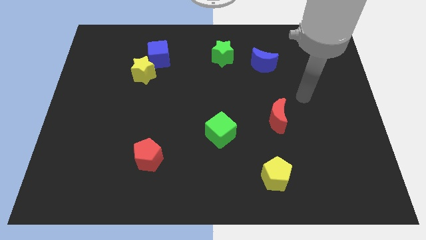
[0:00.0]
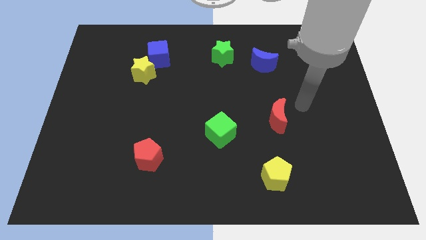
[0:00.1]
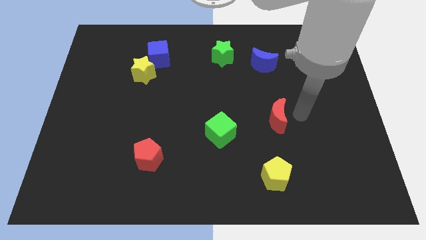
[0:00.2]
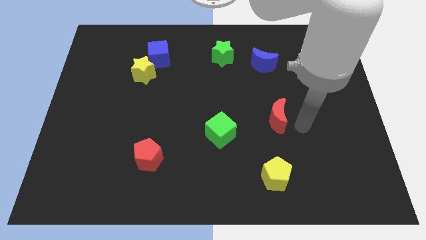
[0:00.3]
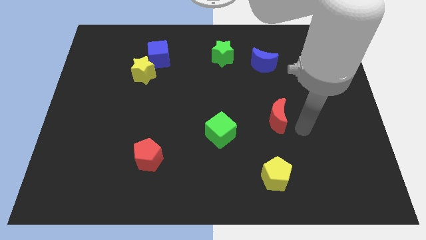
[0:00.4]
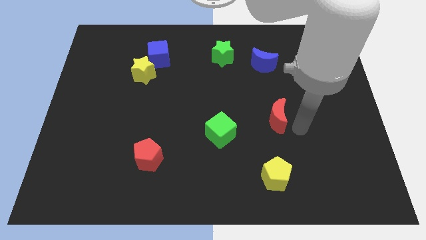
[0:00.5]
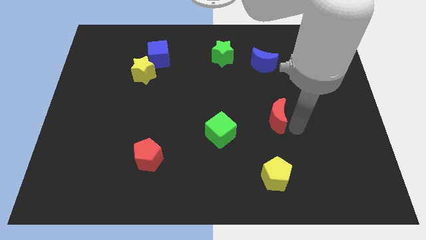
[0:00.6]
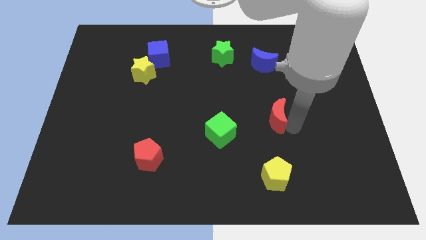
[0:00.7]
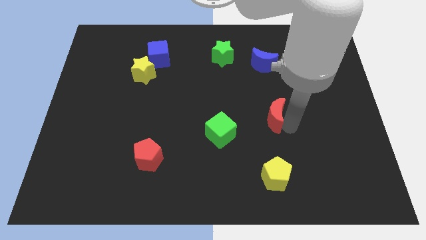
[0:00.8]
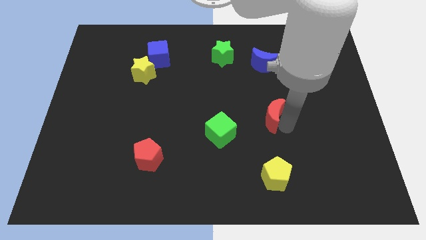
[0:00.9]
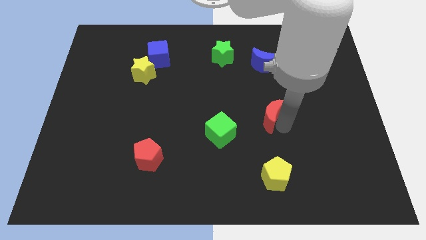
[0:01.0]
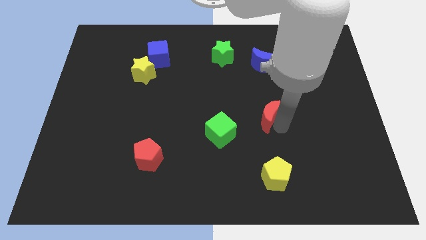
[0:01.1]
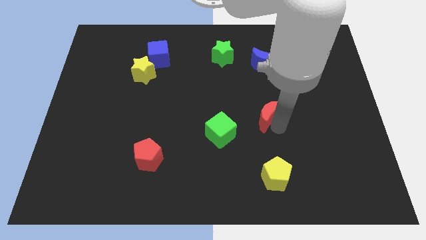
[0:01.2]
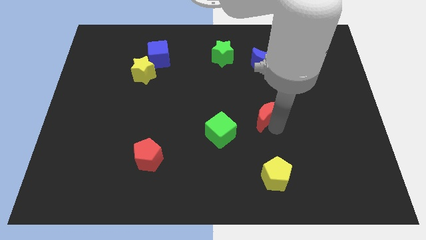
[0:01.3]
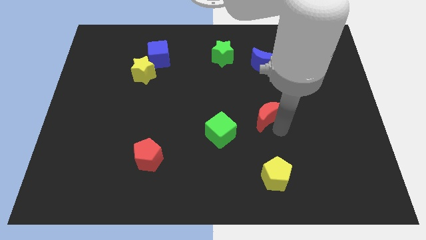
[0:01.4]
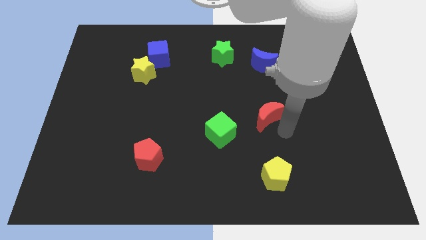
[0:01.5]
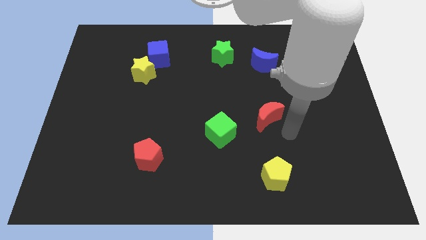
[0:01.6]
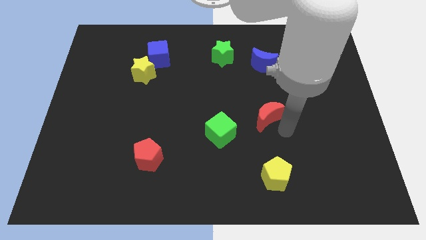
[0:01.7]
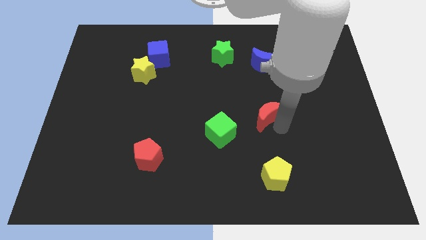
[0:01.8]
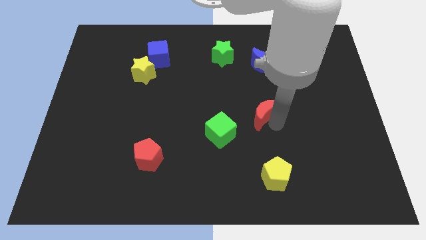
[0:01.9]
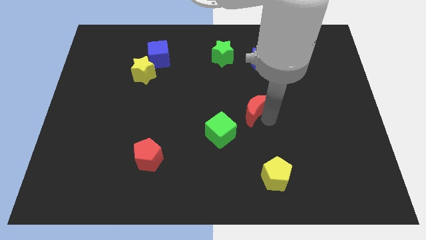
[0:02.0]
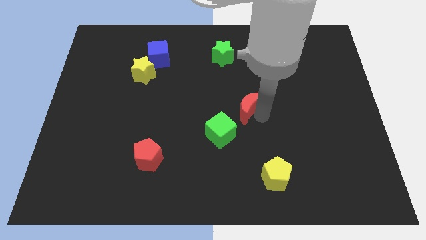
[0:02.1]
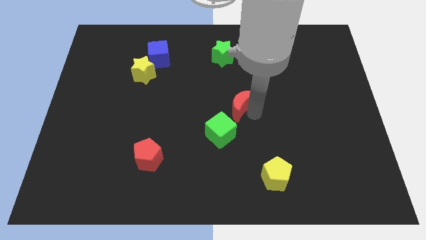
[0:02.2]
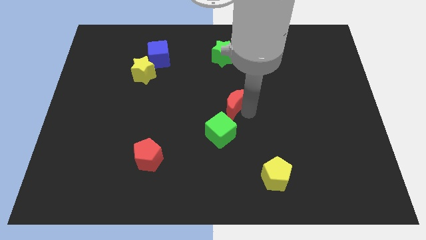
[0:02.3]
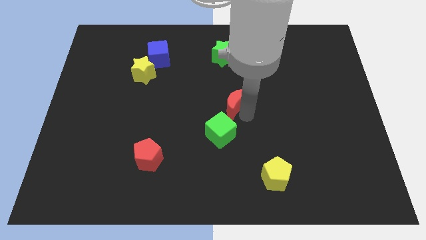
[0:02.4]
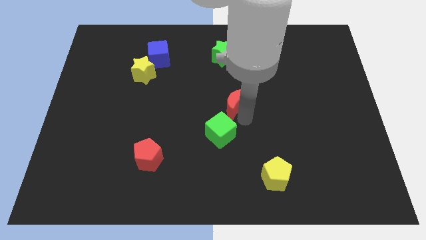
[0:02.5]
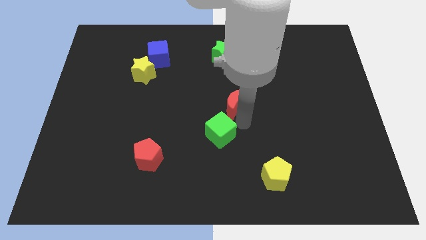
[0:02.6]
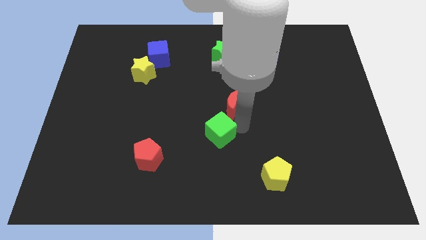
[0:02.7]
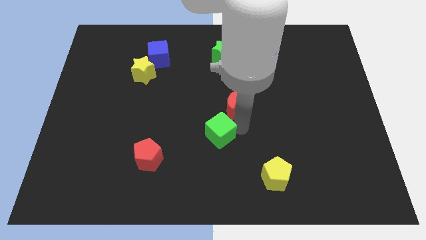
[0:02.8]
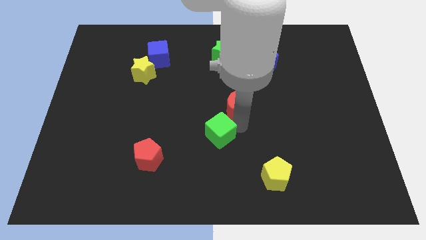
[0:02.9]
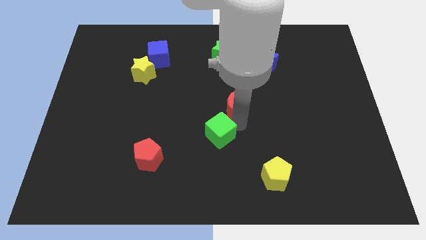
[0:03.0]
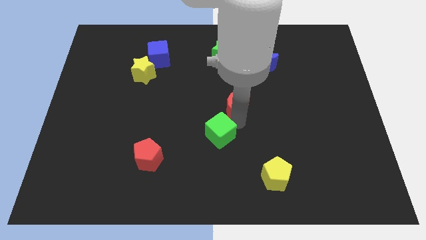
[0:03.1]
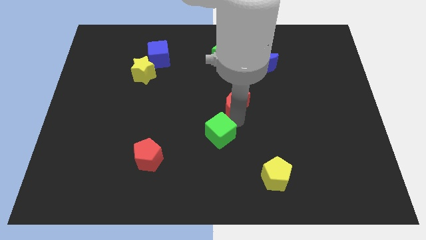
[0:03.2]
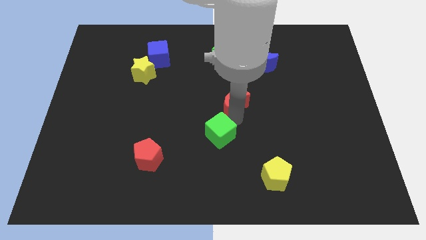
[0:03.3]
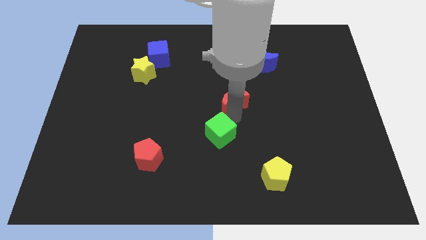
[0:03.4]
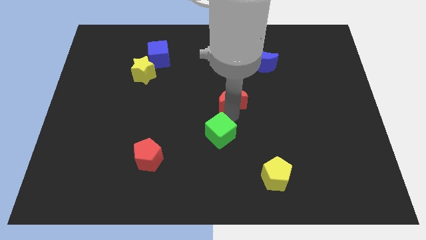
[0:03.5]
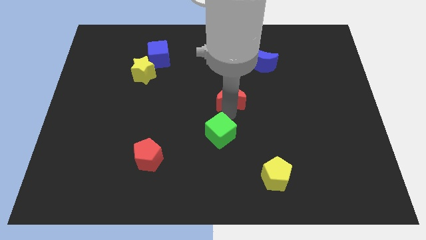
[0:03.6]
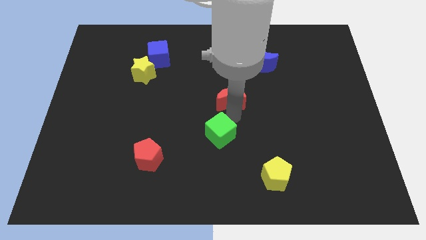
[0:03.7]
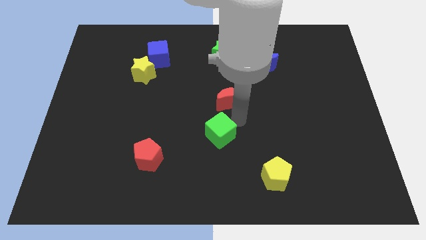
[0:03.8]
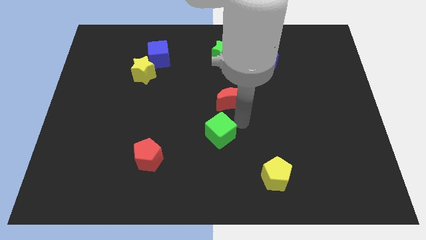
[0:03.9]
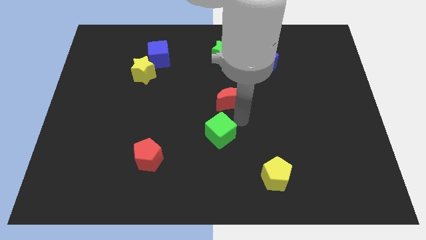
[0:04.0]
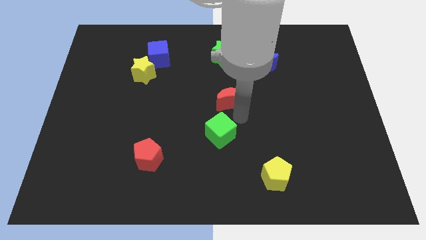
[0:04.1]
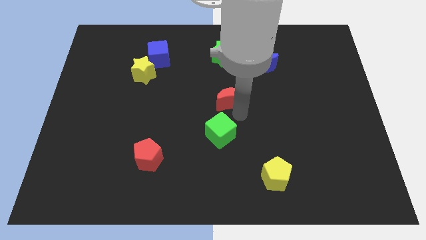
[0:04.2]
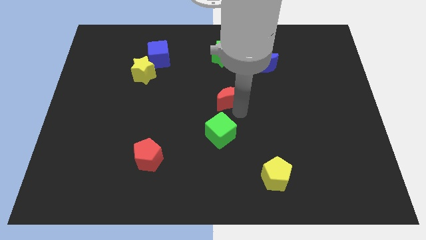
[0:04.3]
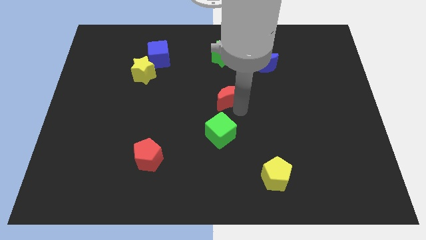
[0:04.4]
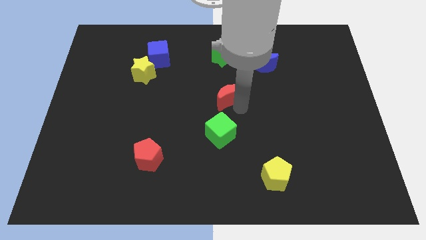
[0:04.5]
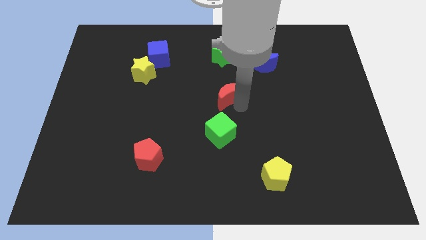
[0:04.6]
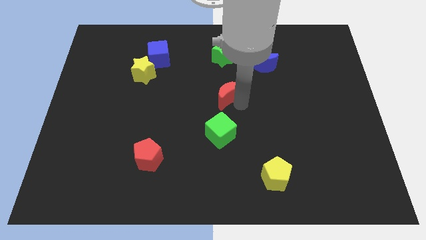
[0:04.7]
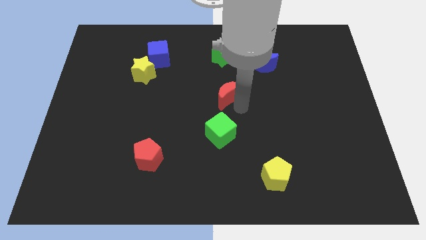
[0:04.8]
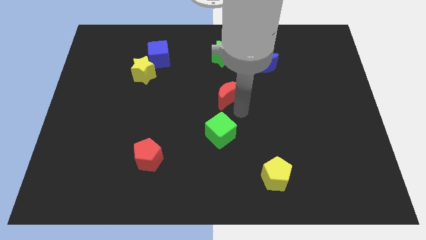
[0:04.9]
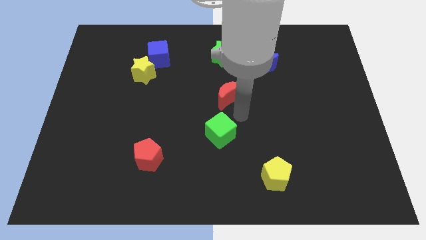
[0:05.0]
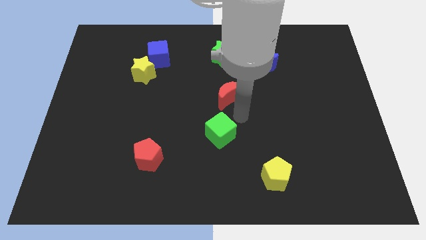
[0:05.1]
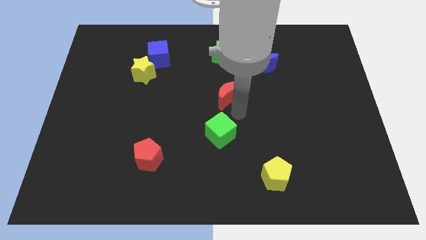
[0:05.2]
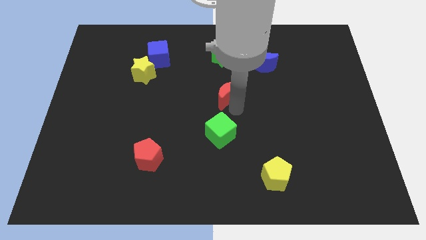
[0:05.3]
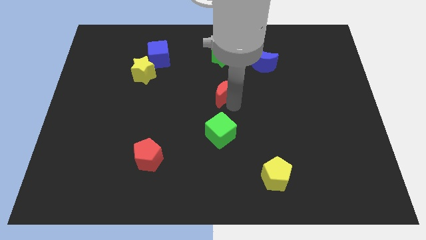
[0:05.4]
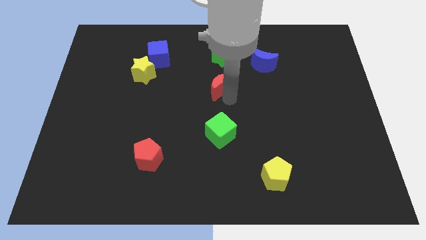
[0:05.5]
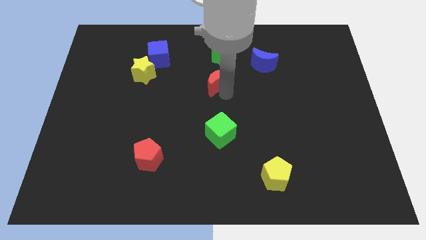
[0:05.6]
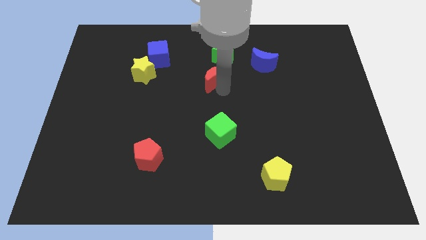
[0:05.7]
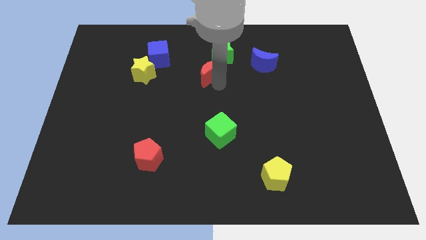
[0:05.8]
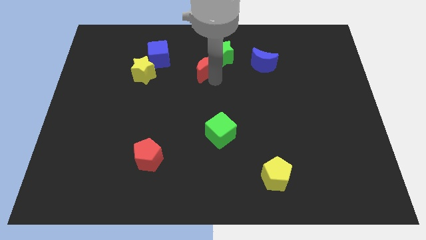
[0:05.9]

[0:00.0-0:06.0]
slide the red moon to the right of the blue cube
